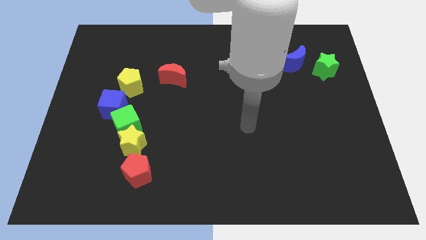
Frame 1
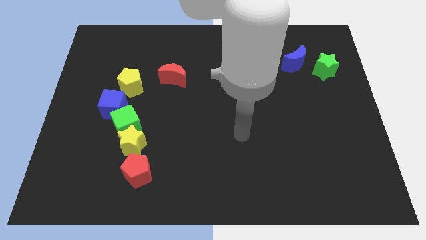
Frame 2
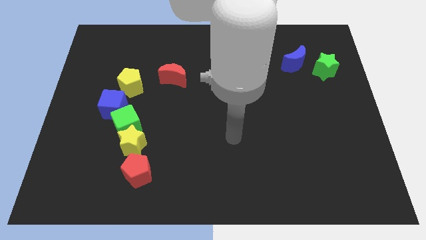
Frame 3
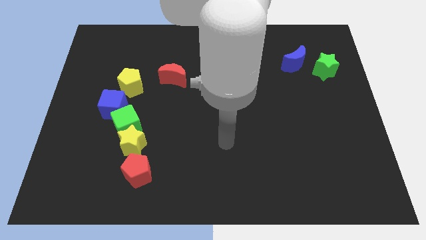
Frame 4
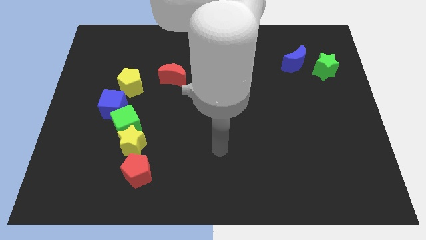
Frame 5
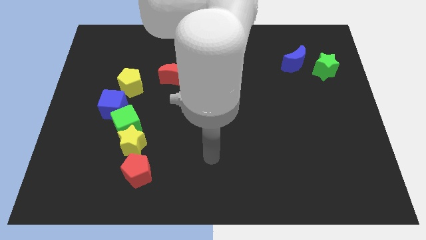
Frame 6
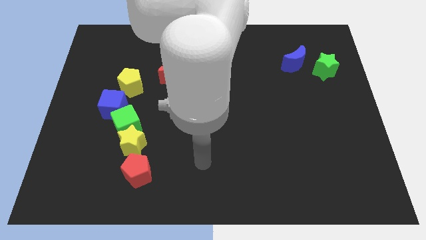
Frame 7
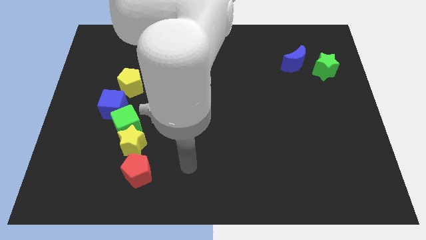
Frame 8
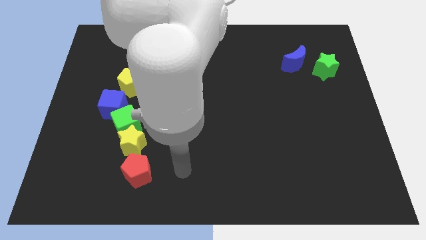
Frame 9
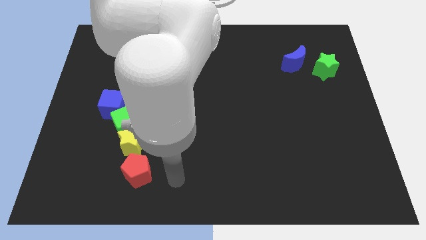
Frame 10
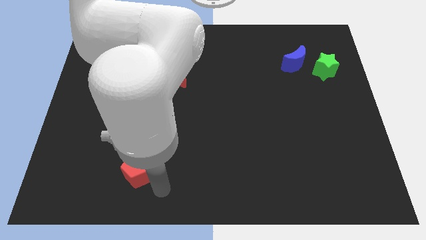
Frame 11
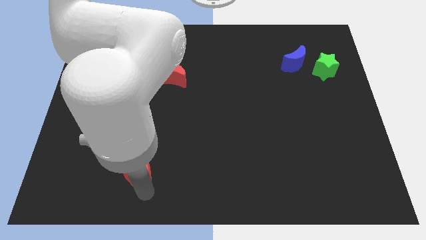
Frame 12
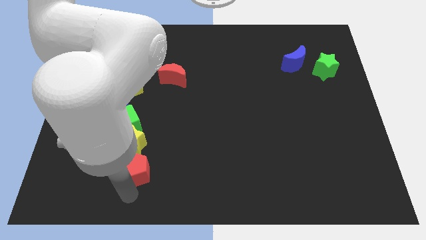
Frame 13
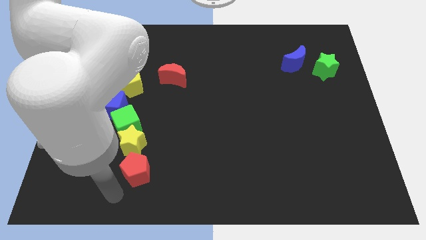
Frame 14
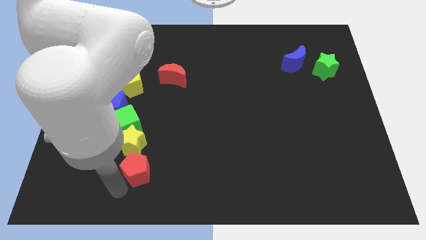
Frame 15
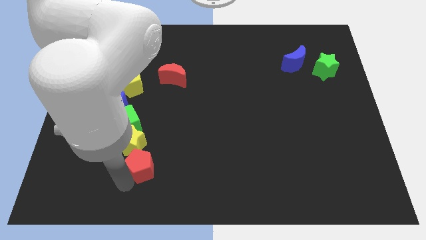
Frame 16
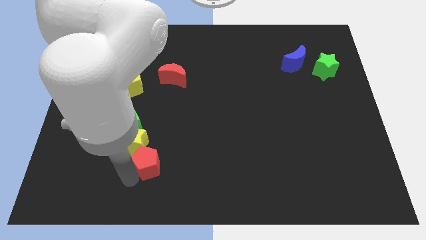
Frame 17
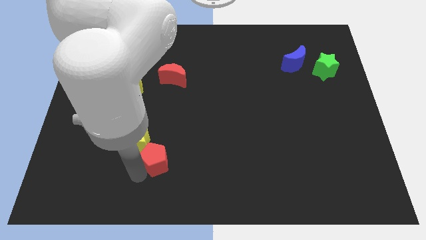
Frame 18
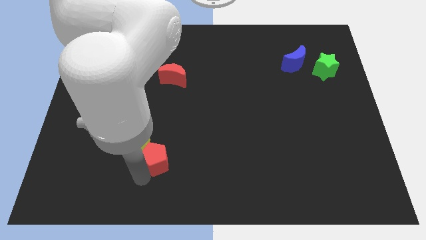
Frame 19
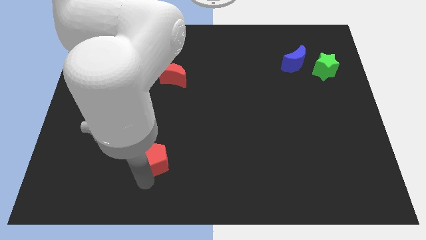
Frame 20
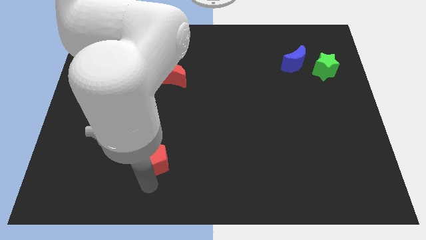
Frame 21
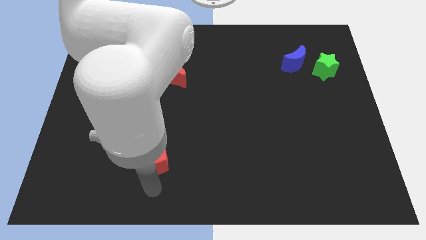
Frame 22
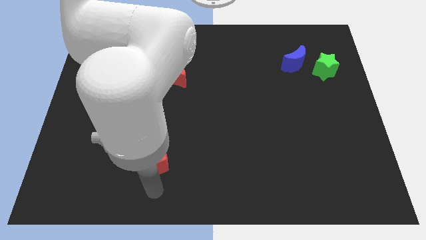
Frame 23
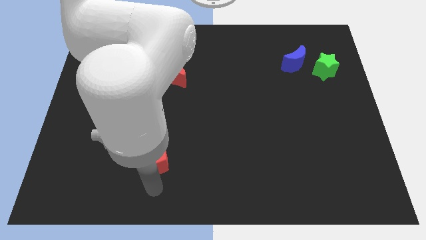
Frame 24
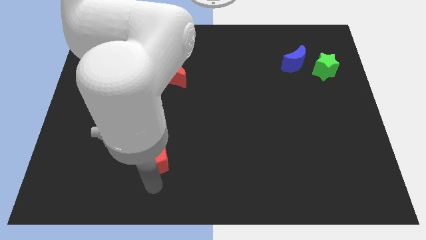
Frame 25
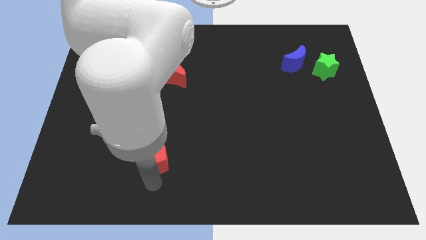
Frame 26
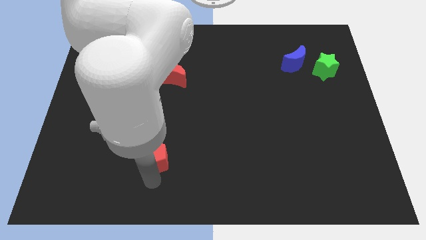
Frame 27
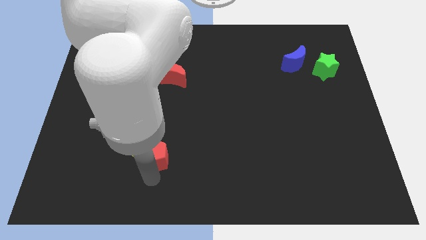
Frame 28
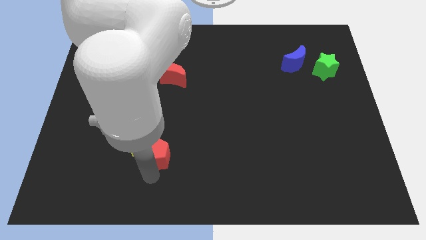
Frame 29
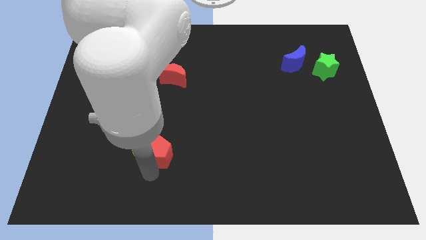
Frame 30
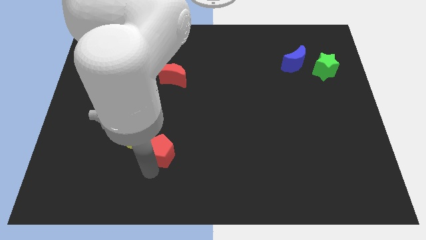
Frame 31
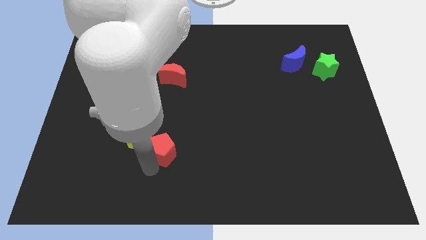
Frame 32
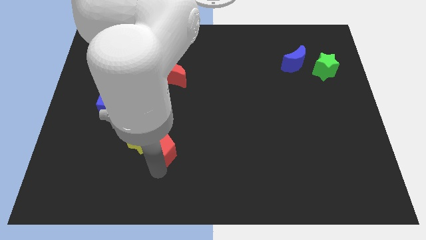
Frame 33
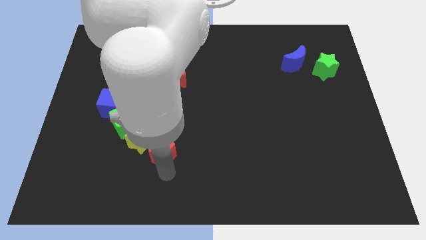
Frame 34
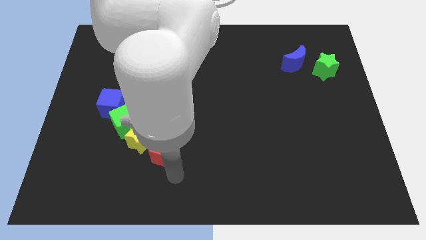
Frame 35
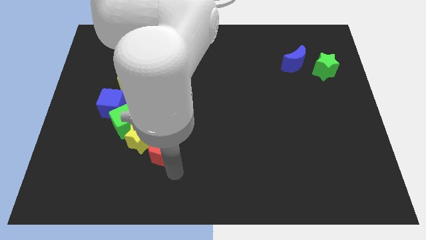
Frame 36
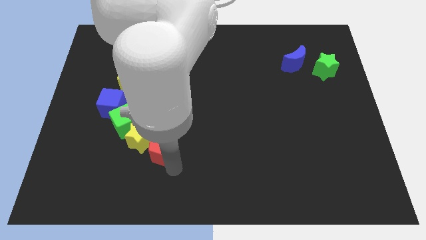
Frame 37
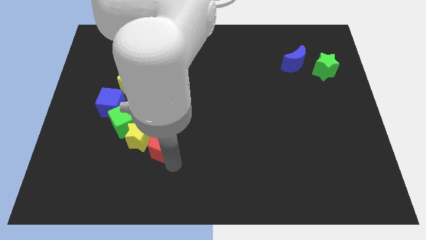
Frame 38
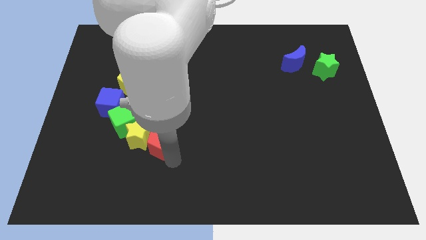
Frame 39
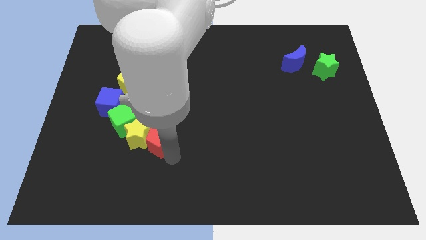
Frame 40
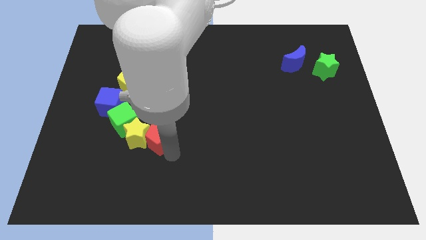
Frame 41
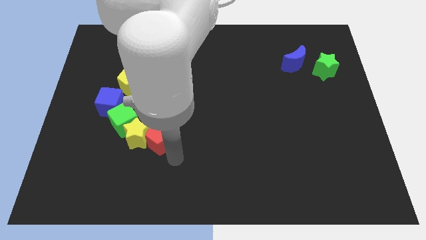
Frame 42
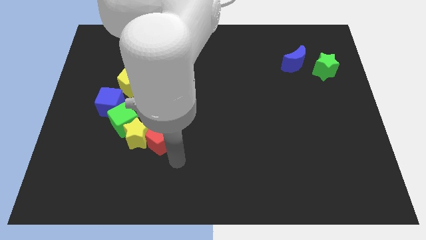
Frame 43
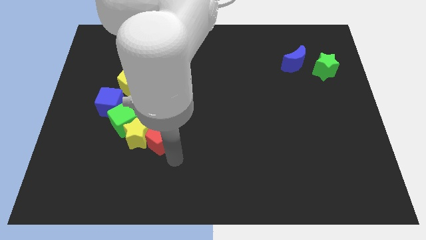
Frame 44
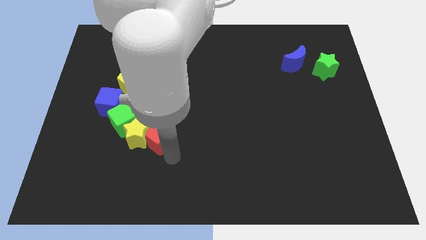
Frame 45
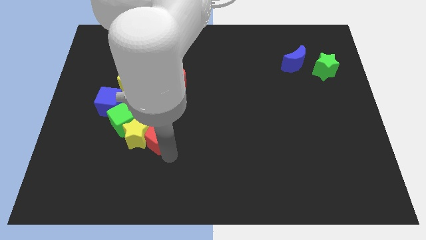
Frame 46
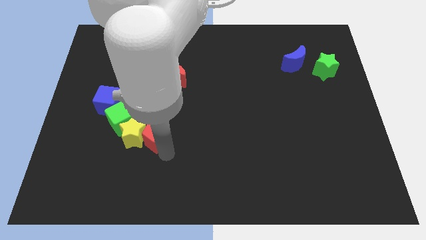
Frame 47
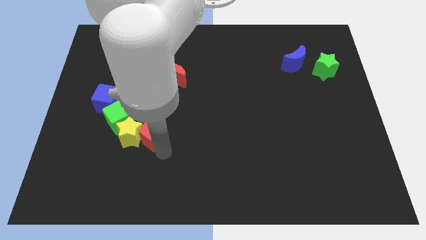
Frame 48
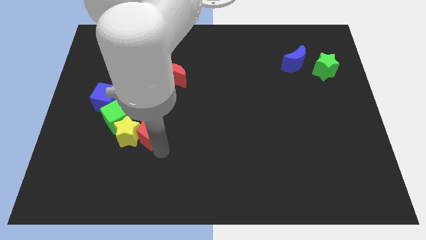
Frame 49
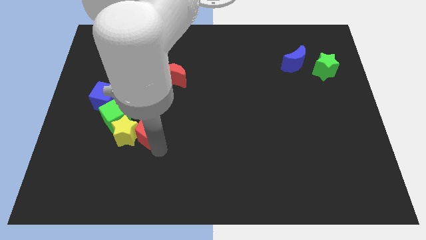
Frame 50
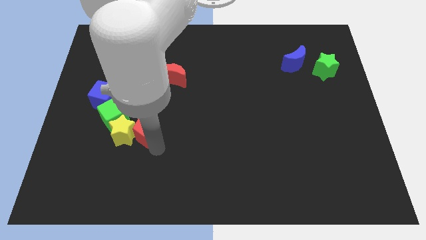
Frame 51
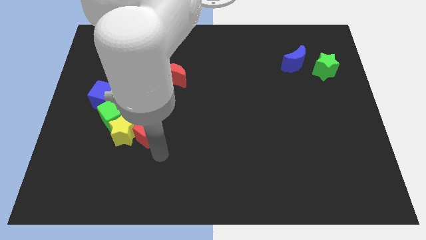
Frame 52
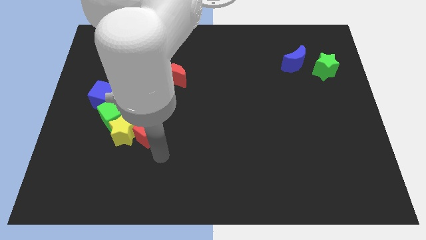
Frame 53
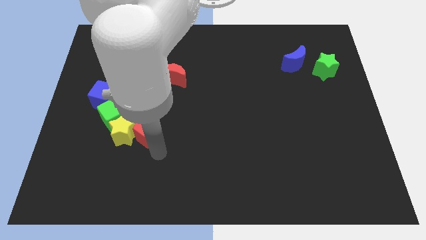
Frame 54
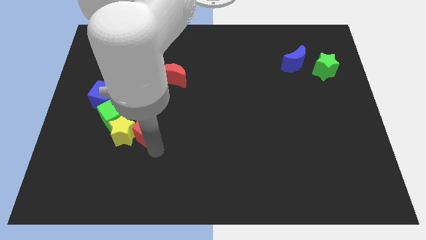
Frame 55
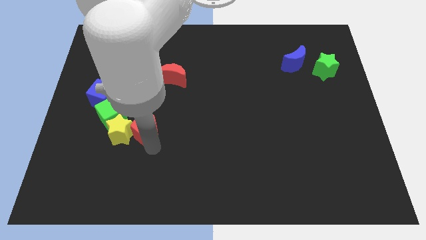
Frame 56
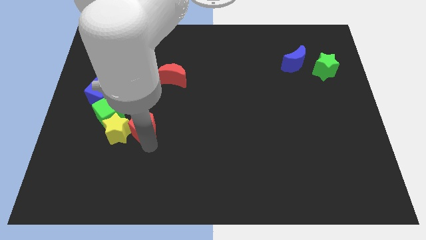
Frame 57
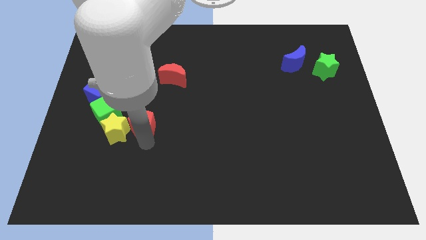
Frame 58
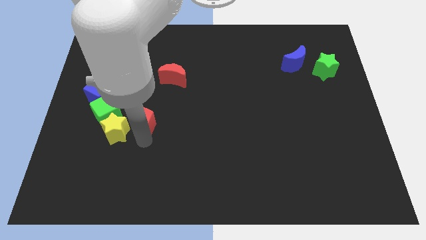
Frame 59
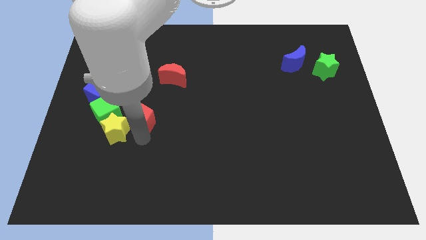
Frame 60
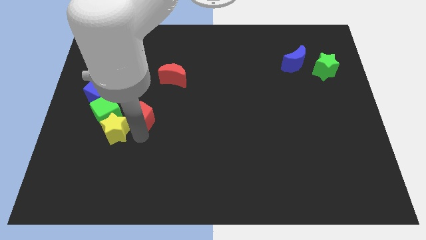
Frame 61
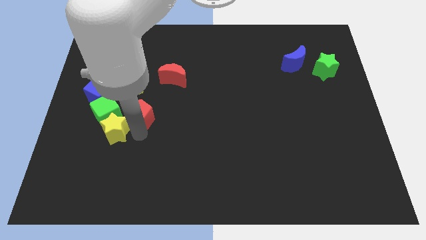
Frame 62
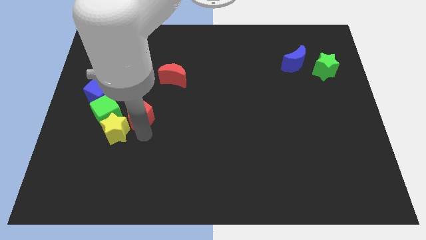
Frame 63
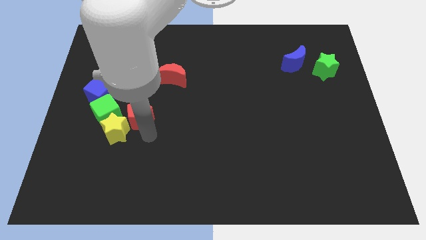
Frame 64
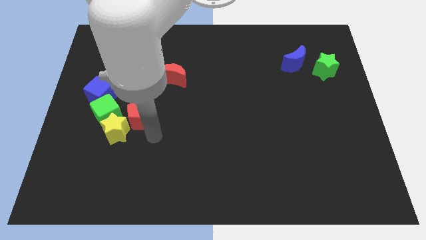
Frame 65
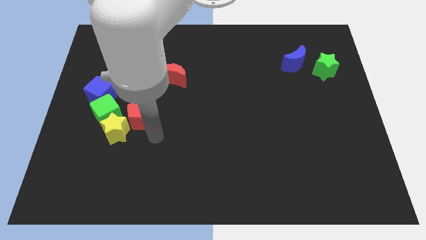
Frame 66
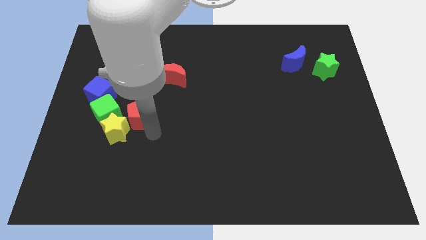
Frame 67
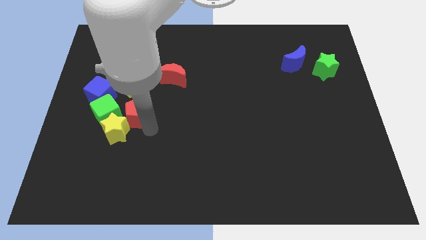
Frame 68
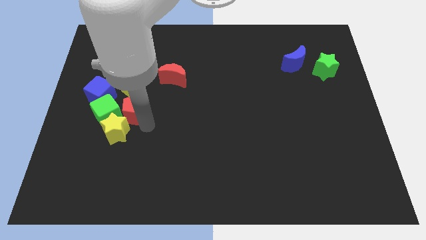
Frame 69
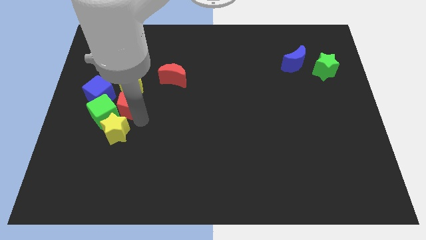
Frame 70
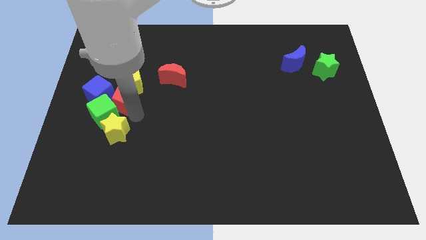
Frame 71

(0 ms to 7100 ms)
move the red pentagon towards the yellow pentagon
